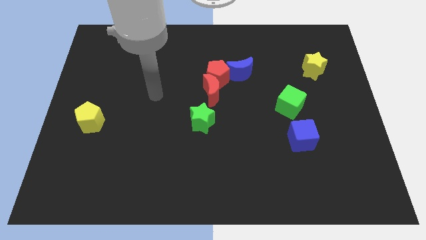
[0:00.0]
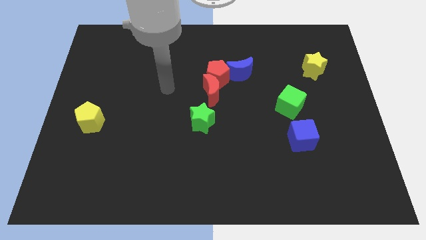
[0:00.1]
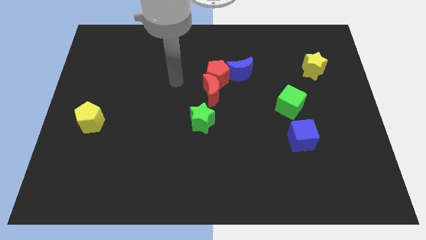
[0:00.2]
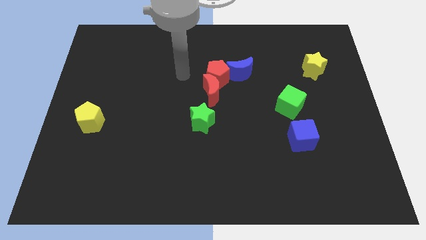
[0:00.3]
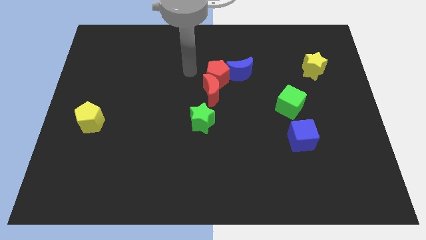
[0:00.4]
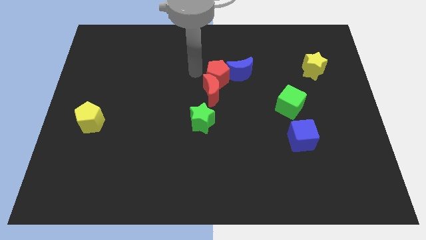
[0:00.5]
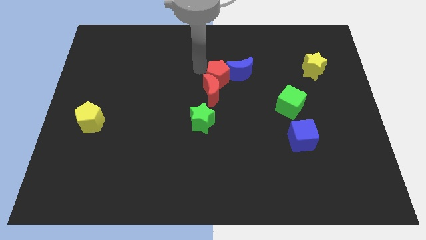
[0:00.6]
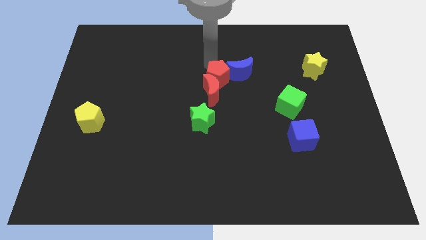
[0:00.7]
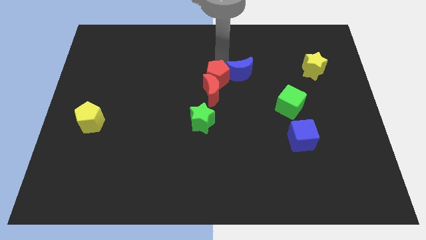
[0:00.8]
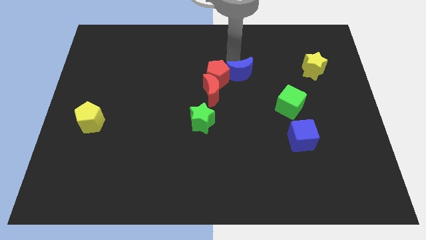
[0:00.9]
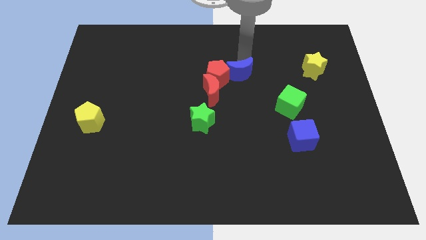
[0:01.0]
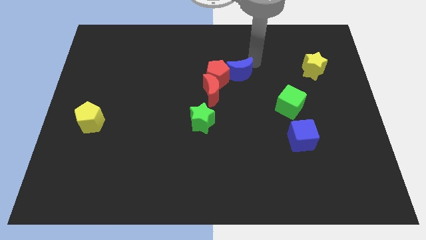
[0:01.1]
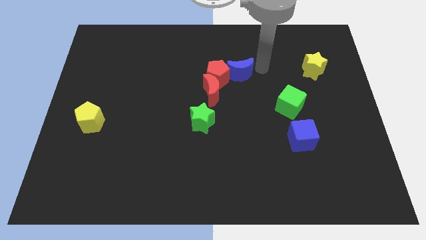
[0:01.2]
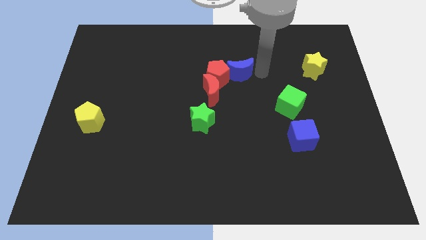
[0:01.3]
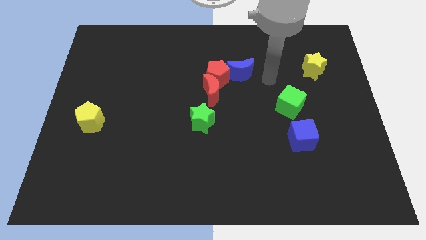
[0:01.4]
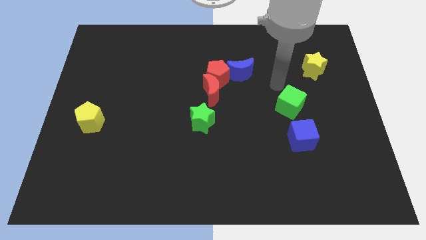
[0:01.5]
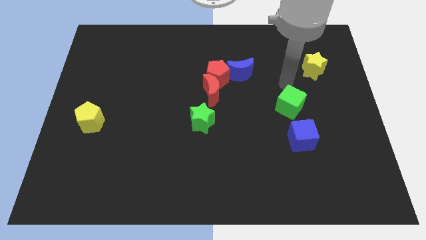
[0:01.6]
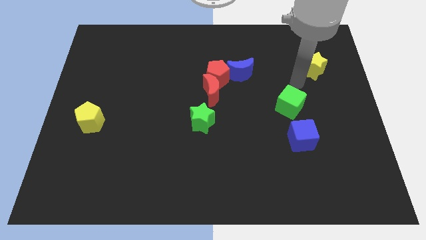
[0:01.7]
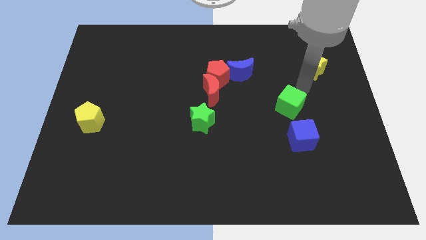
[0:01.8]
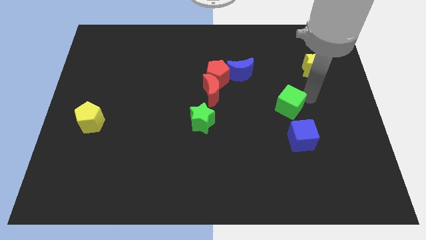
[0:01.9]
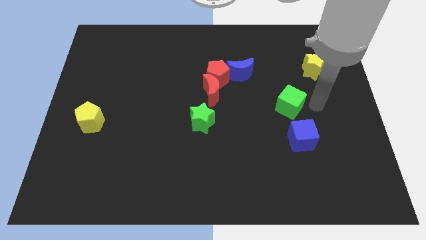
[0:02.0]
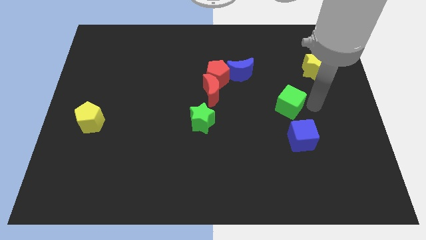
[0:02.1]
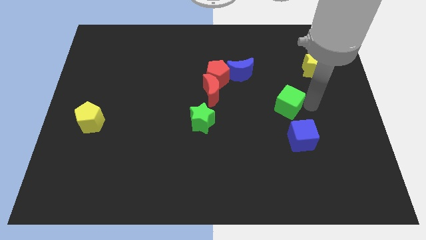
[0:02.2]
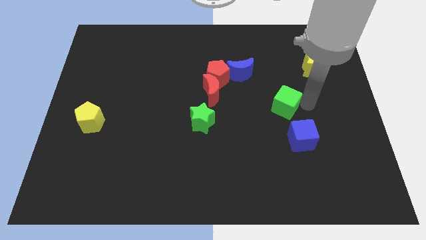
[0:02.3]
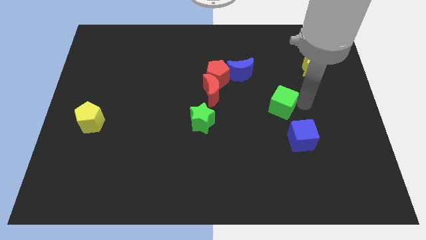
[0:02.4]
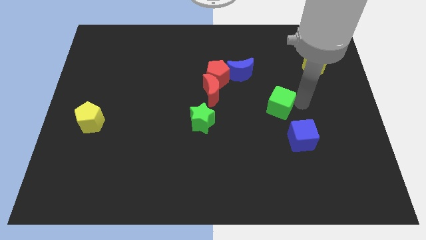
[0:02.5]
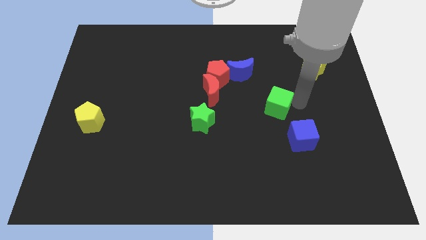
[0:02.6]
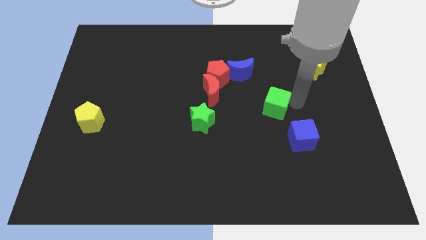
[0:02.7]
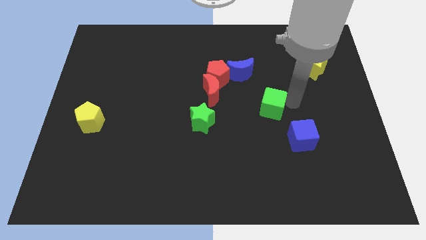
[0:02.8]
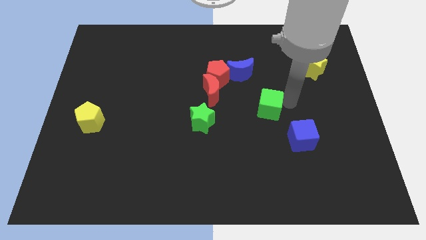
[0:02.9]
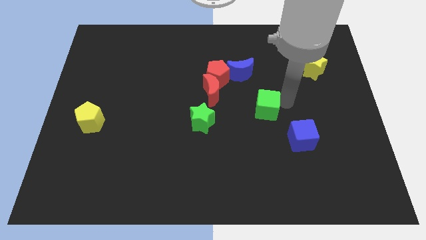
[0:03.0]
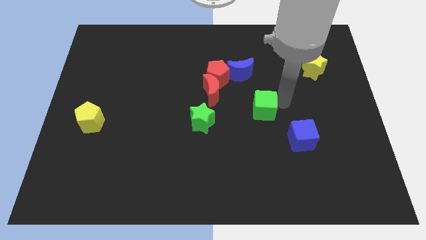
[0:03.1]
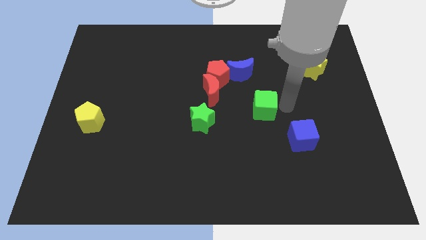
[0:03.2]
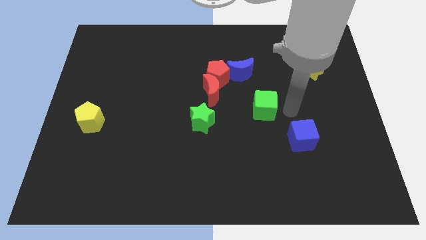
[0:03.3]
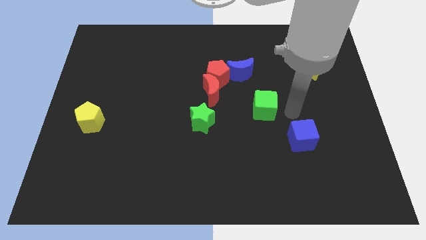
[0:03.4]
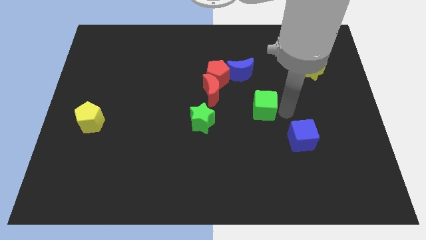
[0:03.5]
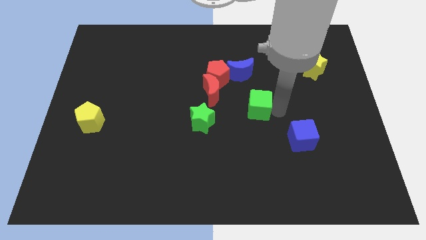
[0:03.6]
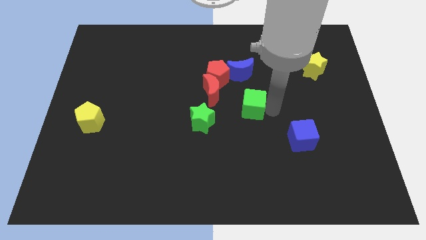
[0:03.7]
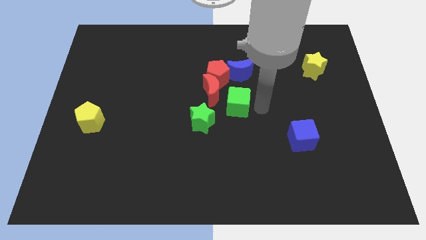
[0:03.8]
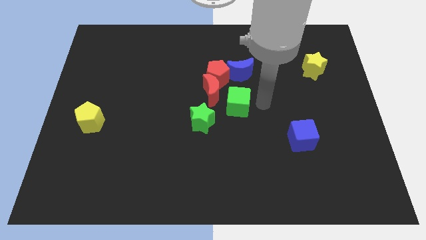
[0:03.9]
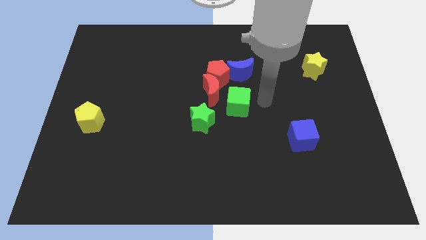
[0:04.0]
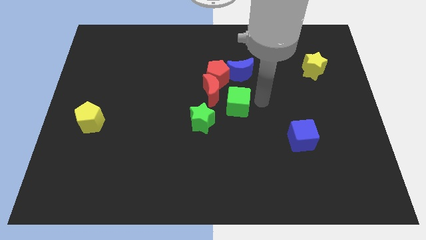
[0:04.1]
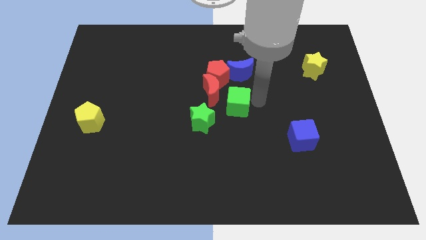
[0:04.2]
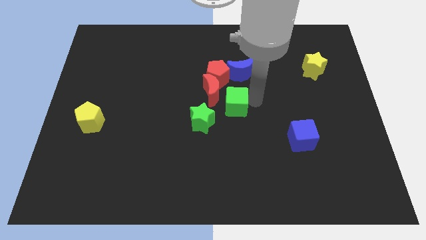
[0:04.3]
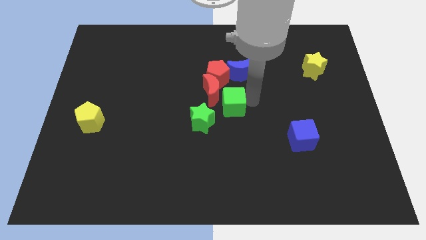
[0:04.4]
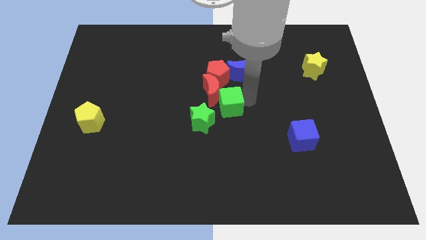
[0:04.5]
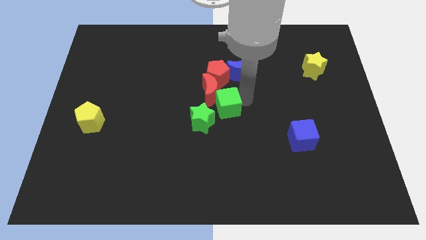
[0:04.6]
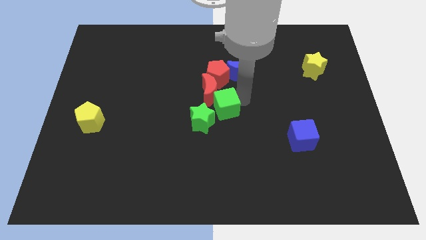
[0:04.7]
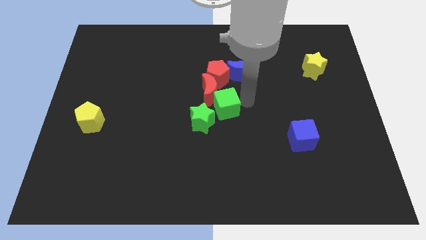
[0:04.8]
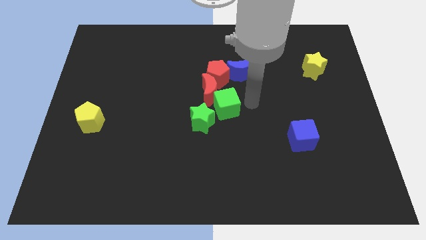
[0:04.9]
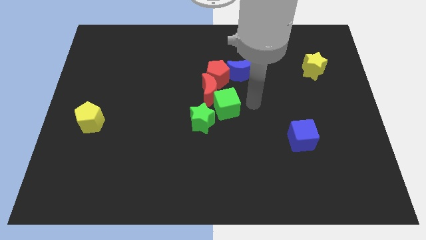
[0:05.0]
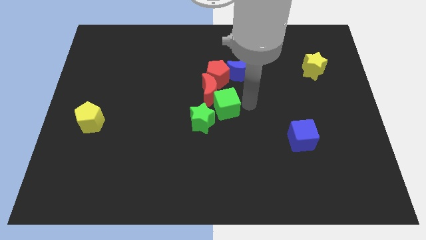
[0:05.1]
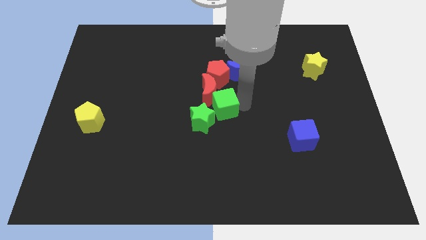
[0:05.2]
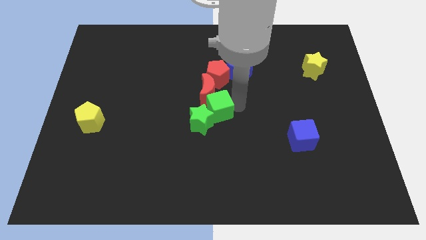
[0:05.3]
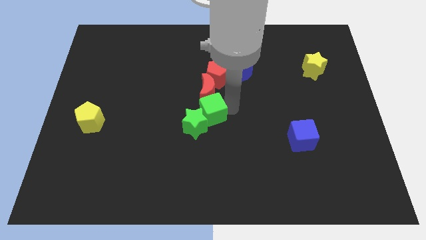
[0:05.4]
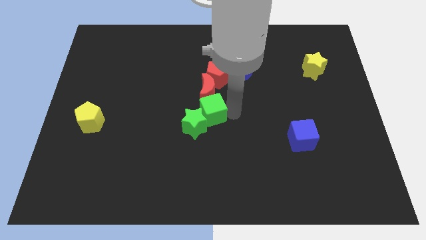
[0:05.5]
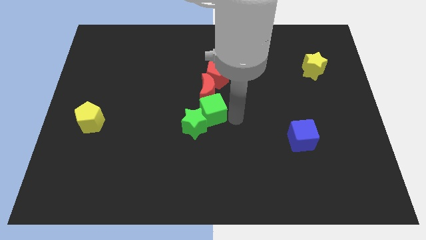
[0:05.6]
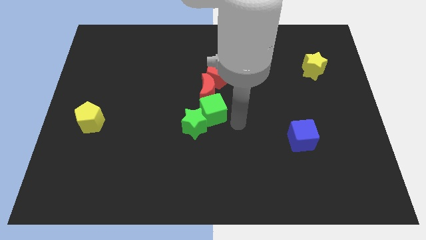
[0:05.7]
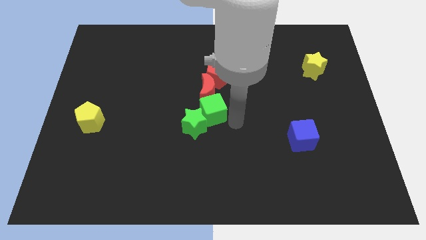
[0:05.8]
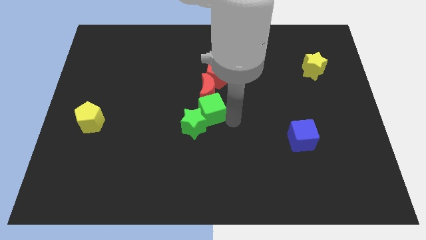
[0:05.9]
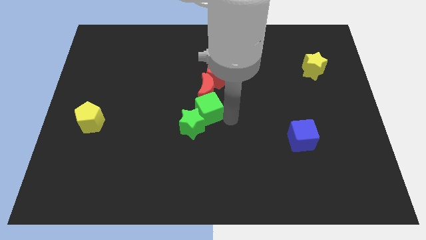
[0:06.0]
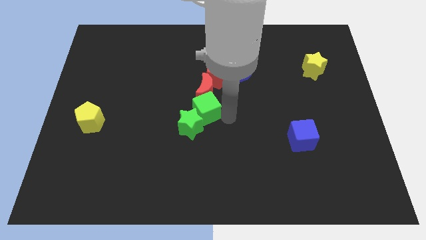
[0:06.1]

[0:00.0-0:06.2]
slide the green cube to the left

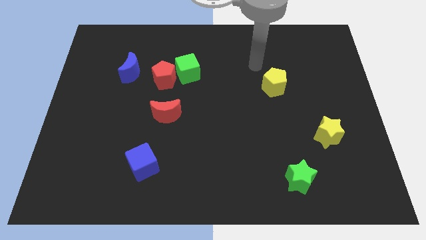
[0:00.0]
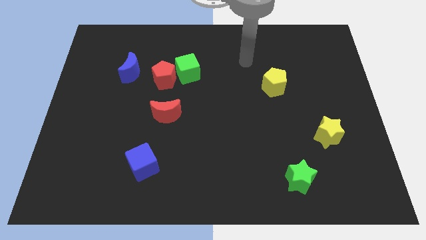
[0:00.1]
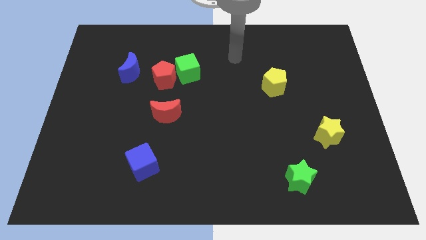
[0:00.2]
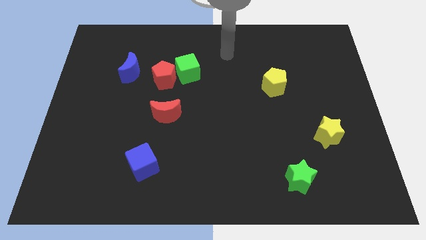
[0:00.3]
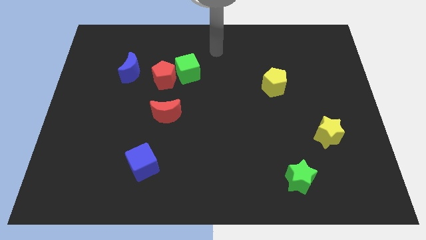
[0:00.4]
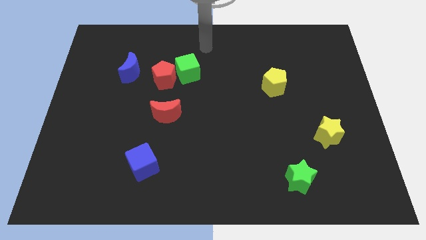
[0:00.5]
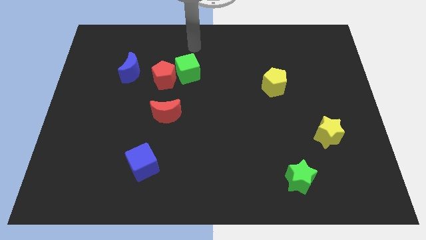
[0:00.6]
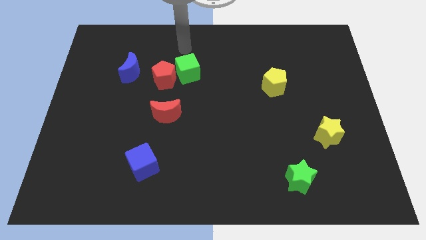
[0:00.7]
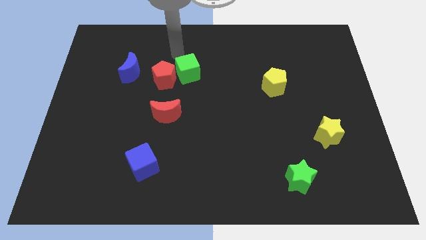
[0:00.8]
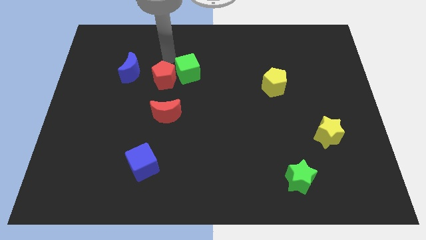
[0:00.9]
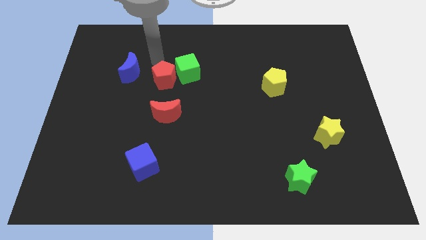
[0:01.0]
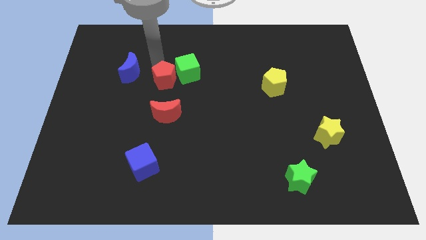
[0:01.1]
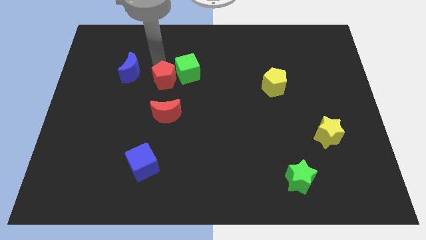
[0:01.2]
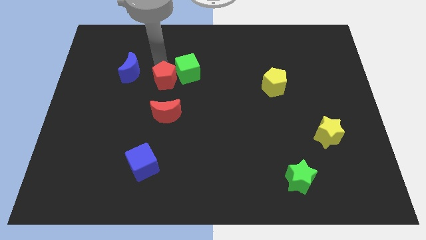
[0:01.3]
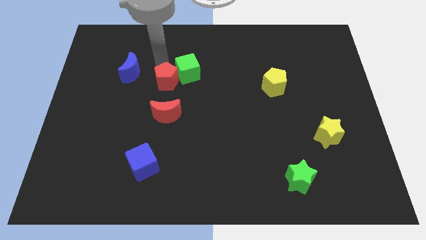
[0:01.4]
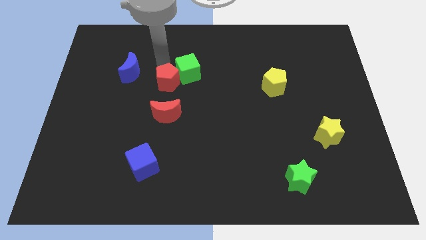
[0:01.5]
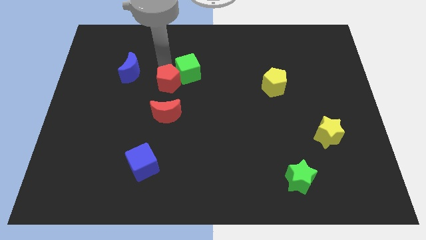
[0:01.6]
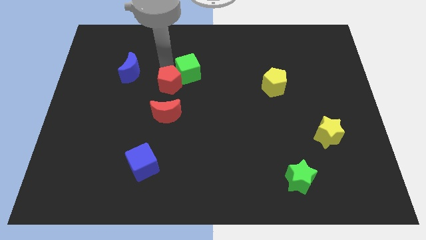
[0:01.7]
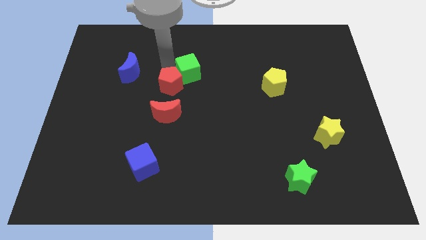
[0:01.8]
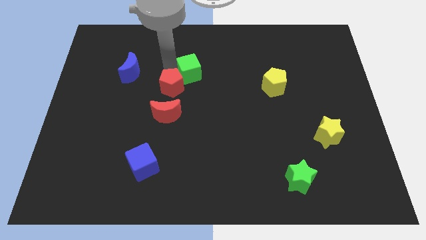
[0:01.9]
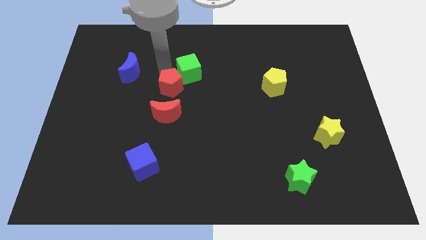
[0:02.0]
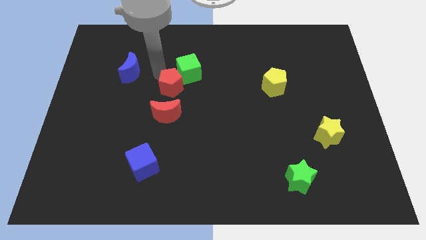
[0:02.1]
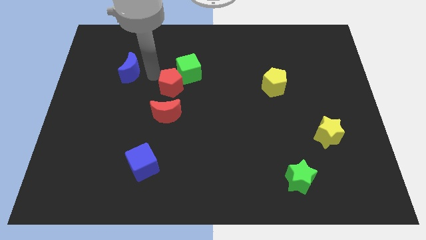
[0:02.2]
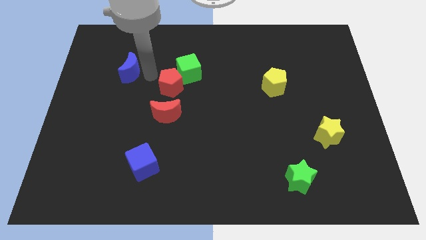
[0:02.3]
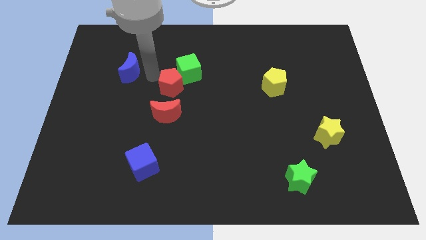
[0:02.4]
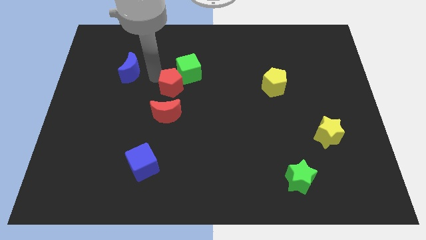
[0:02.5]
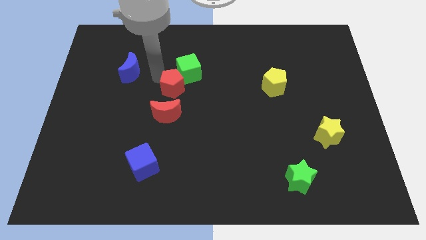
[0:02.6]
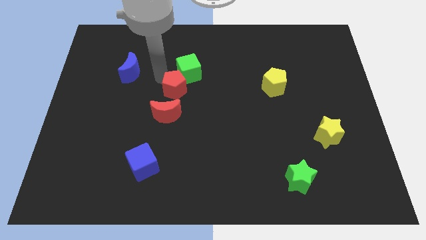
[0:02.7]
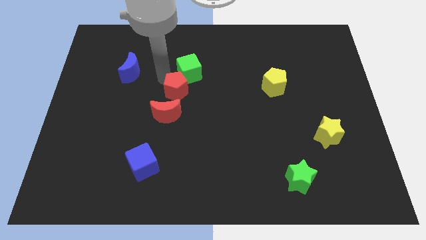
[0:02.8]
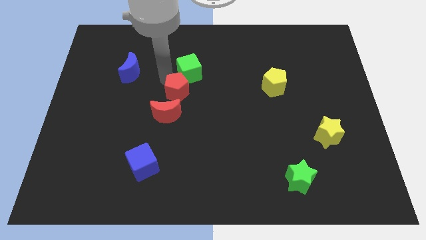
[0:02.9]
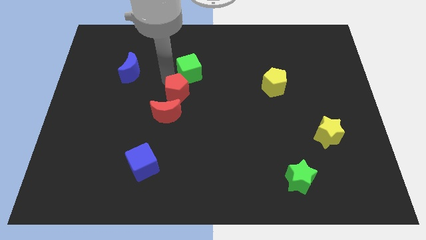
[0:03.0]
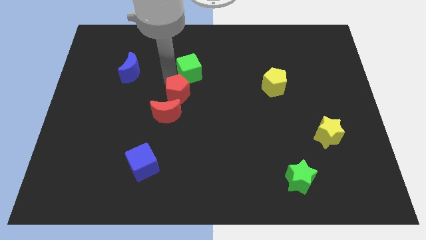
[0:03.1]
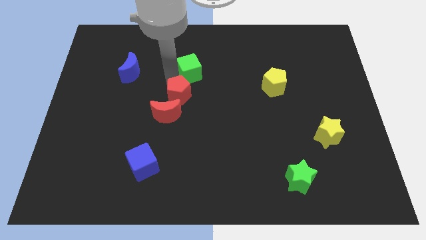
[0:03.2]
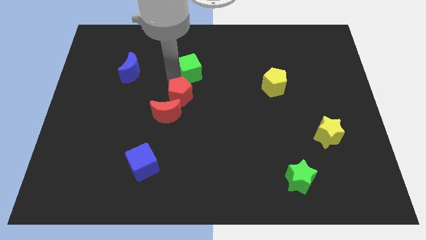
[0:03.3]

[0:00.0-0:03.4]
push the red pentagon down and then to the right slightly
